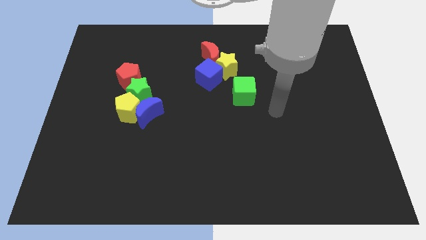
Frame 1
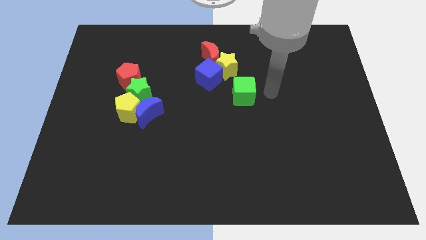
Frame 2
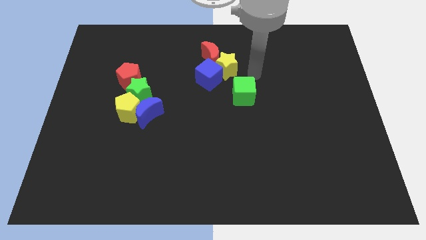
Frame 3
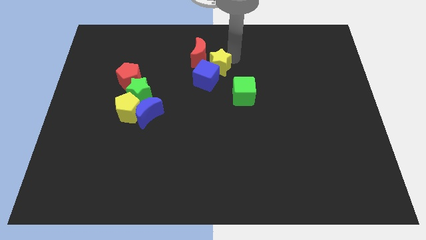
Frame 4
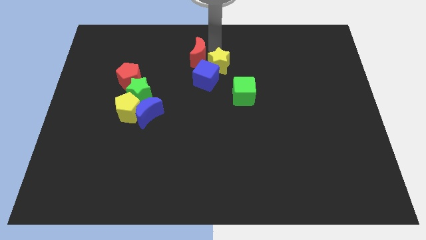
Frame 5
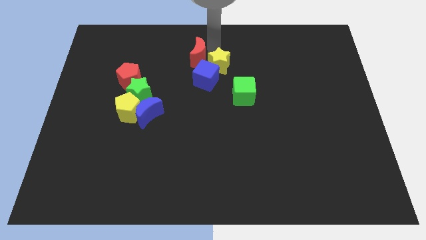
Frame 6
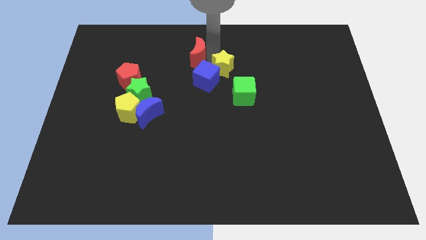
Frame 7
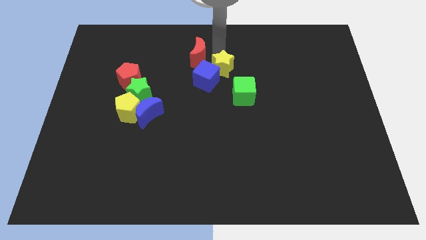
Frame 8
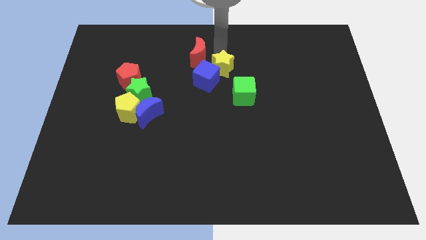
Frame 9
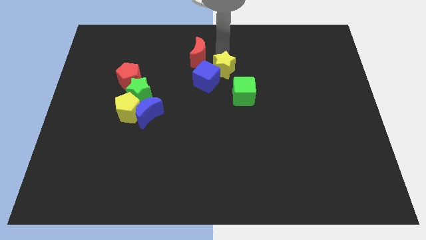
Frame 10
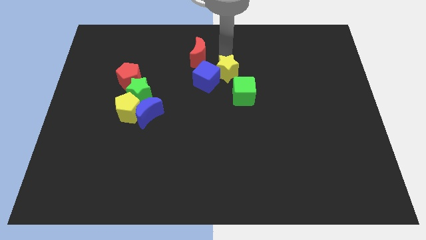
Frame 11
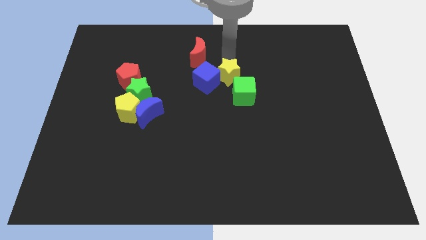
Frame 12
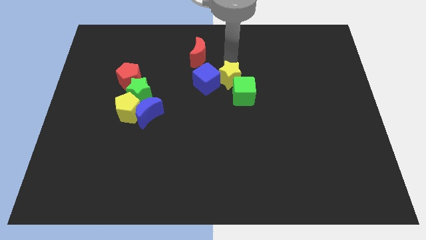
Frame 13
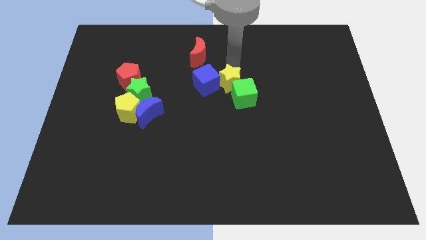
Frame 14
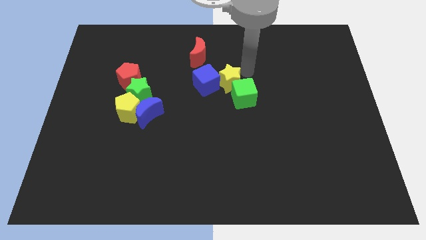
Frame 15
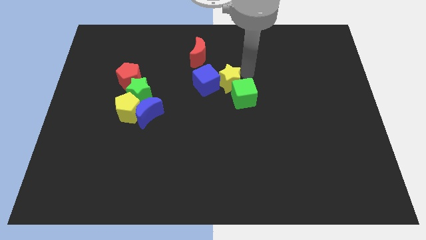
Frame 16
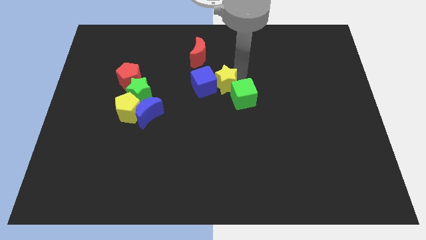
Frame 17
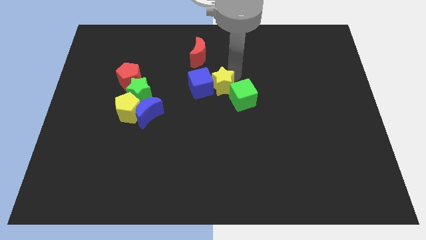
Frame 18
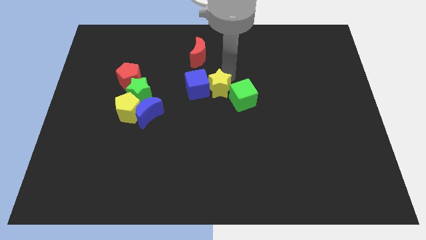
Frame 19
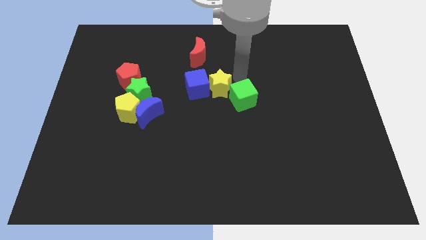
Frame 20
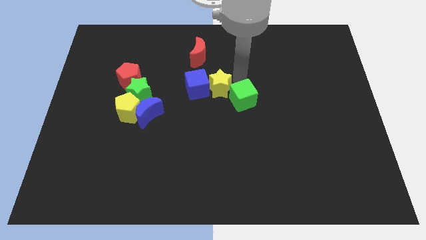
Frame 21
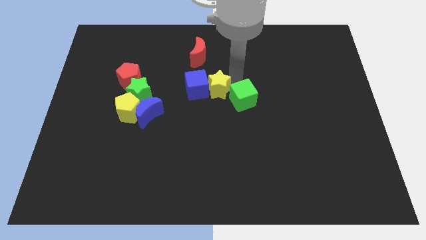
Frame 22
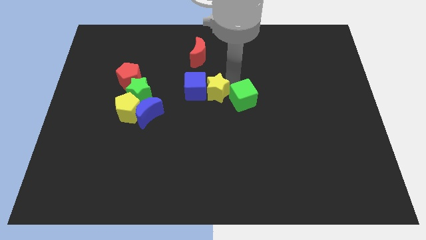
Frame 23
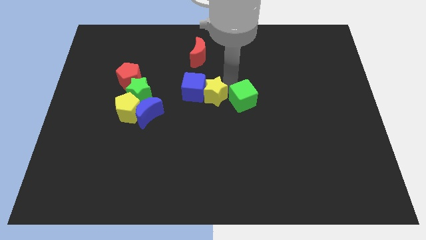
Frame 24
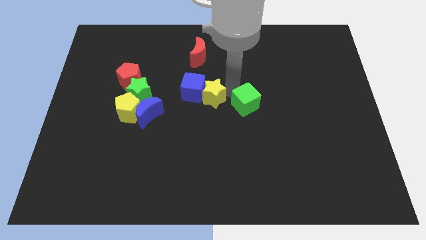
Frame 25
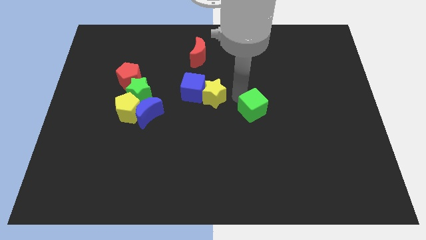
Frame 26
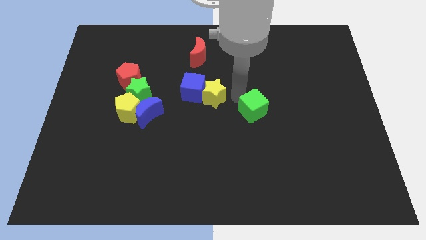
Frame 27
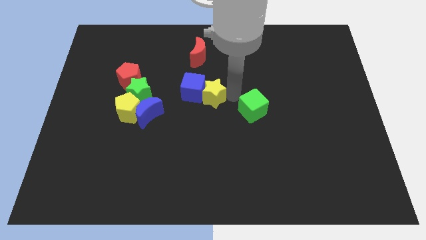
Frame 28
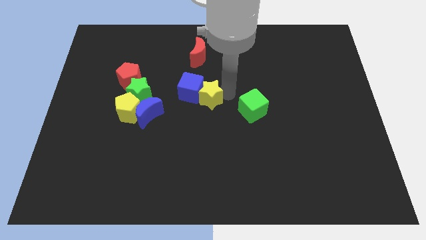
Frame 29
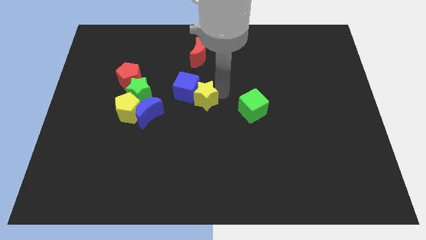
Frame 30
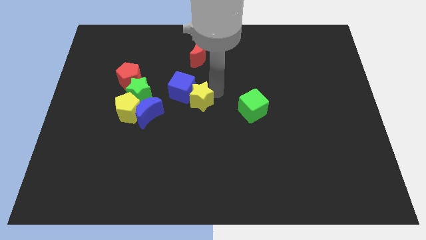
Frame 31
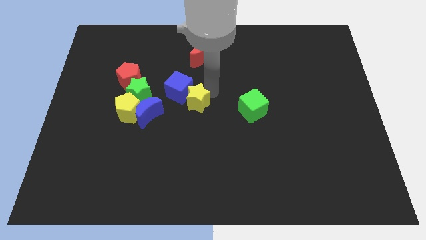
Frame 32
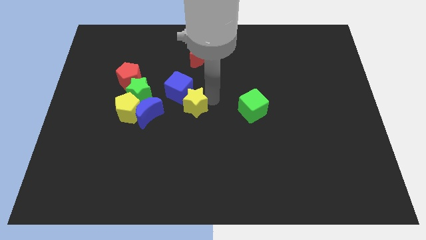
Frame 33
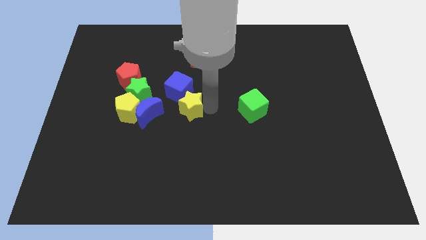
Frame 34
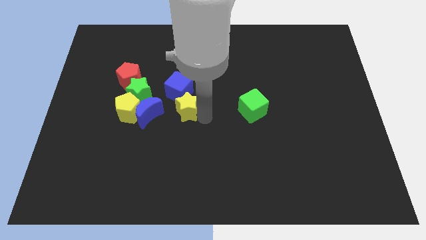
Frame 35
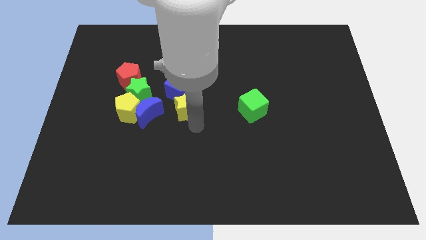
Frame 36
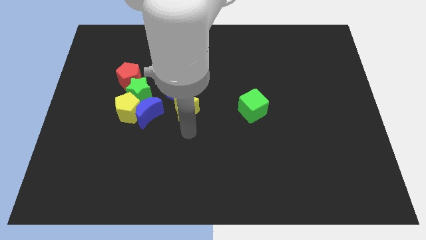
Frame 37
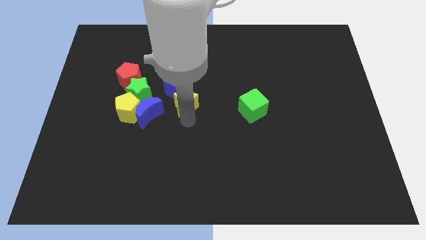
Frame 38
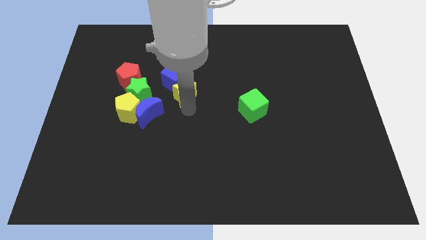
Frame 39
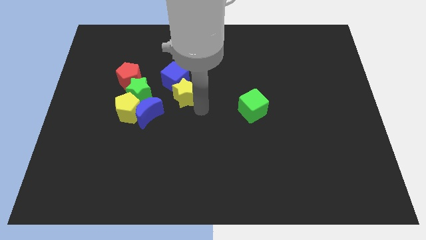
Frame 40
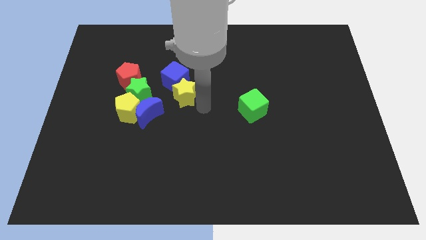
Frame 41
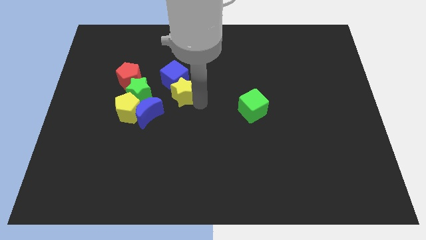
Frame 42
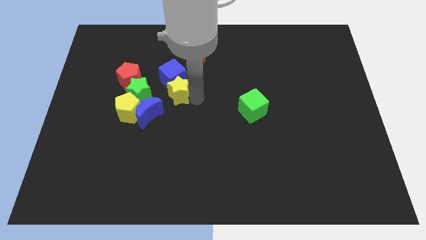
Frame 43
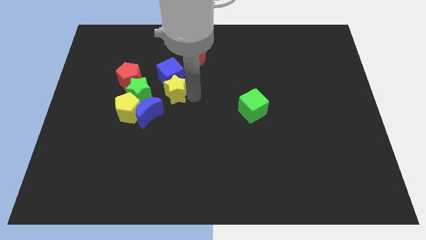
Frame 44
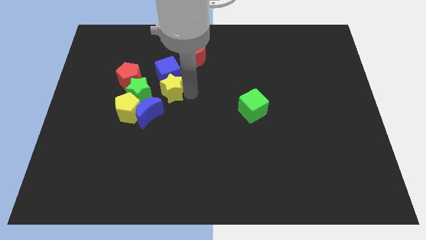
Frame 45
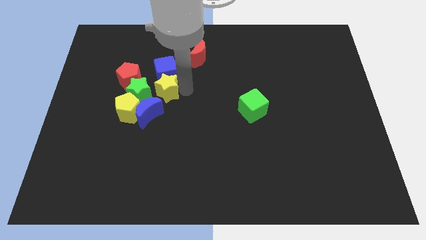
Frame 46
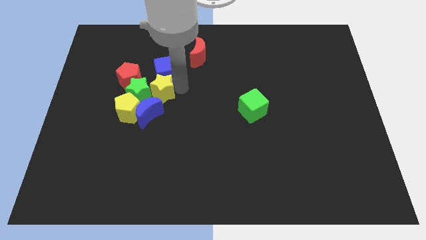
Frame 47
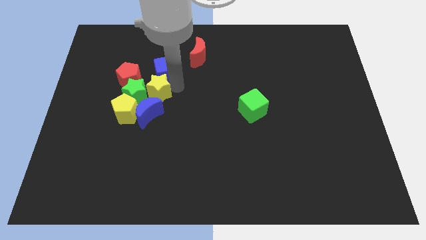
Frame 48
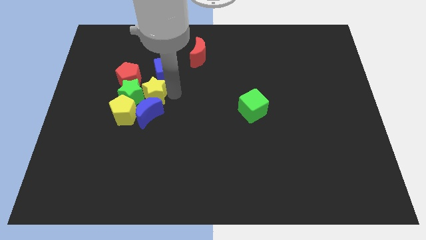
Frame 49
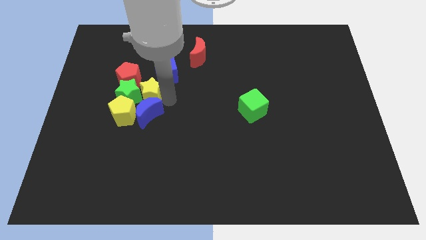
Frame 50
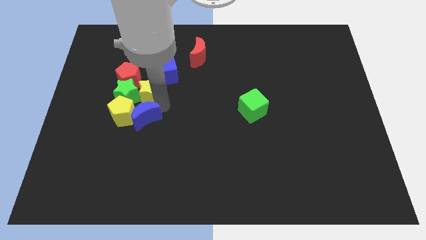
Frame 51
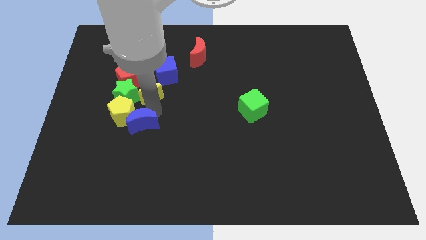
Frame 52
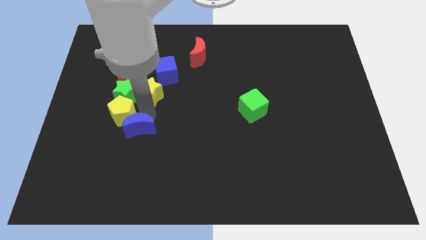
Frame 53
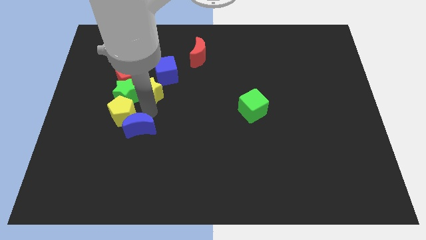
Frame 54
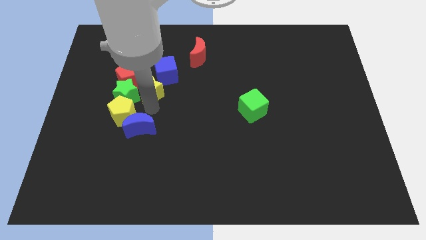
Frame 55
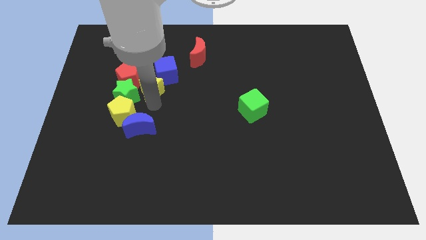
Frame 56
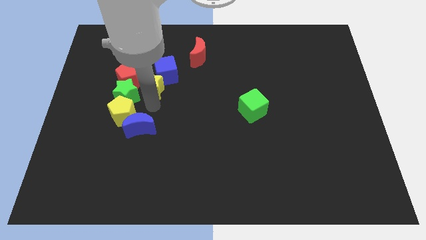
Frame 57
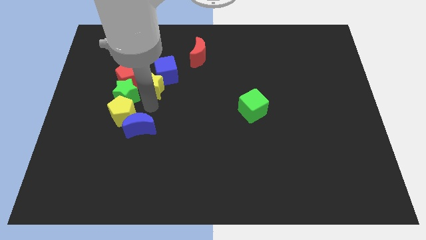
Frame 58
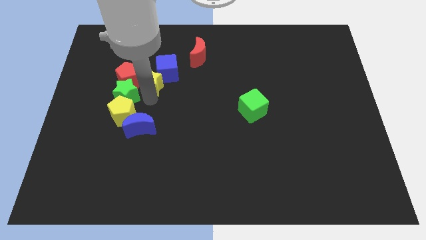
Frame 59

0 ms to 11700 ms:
move the yellow star next to the red pentagon

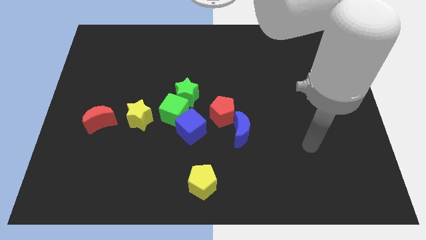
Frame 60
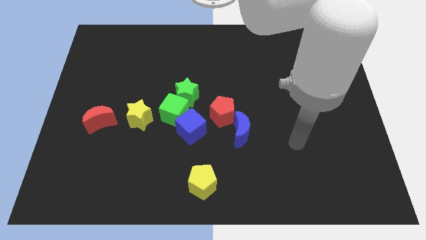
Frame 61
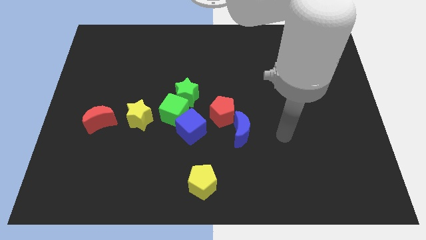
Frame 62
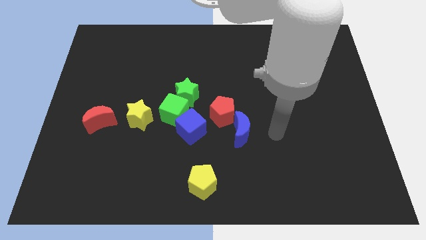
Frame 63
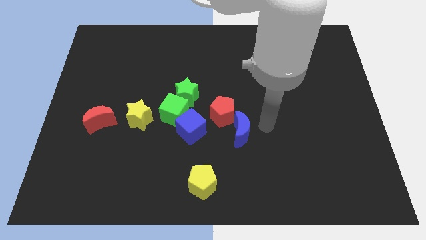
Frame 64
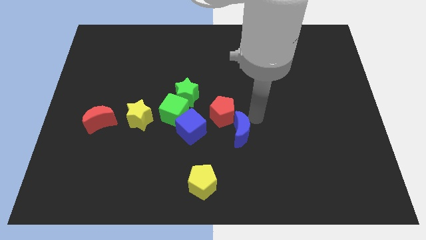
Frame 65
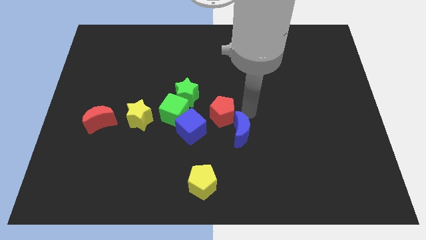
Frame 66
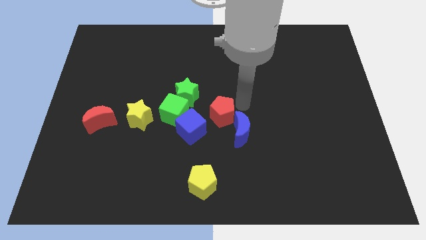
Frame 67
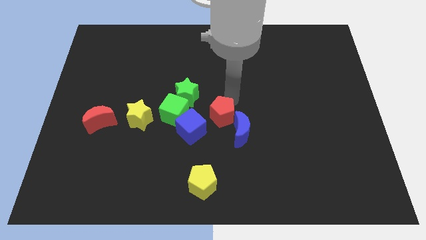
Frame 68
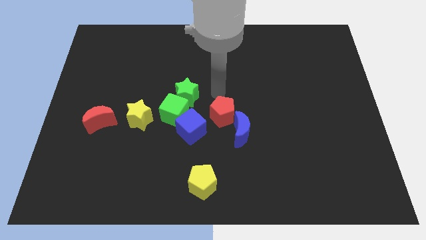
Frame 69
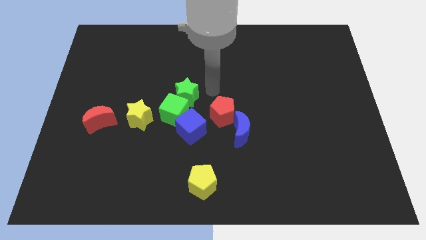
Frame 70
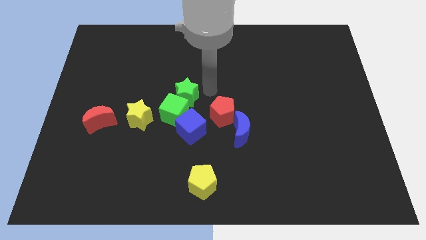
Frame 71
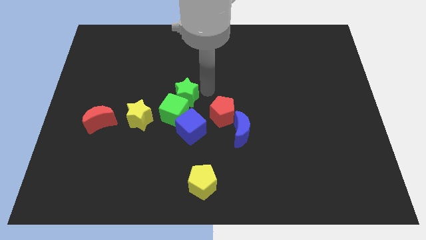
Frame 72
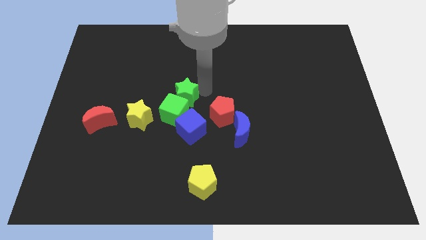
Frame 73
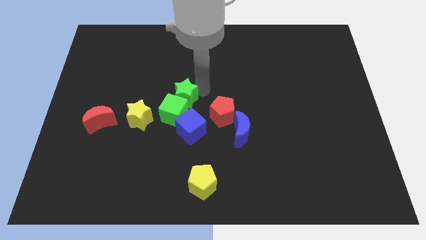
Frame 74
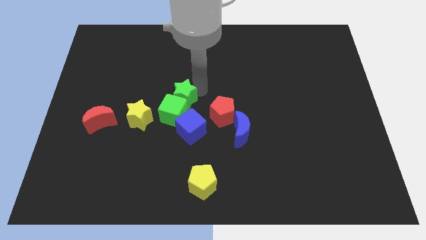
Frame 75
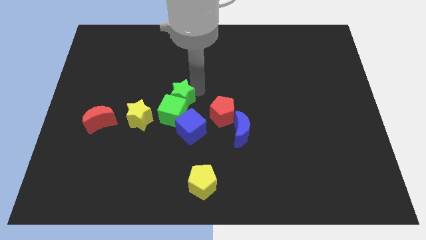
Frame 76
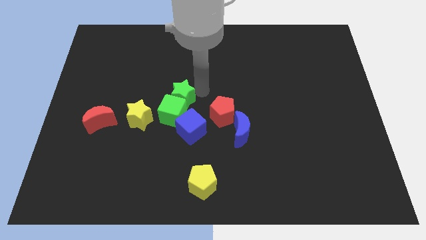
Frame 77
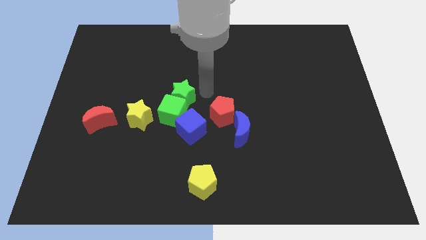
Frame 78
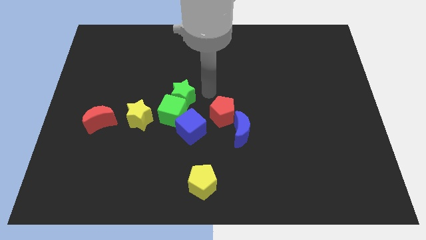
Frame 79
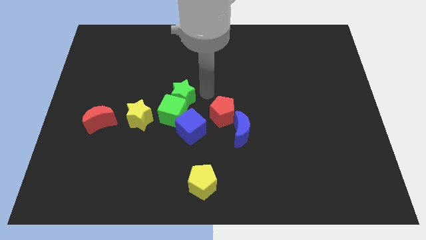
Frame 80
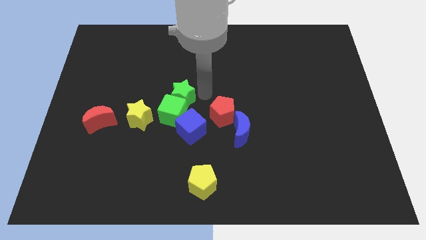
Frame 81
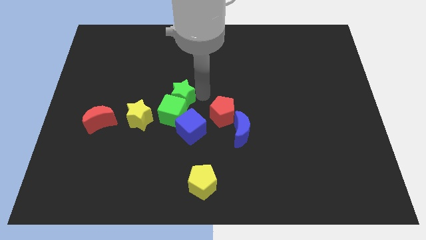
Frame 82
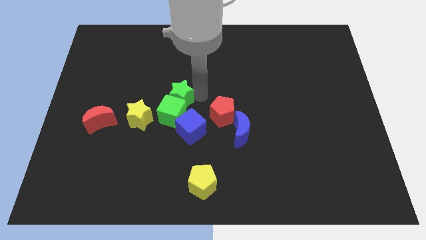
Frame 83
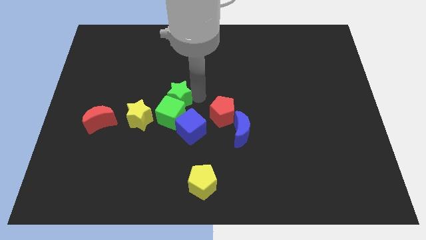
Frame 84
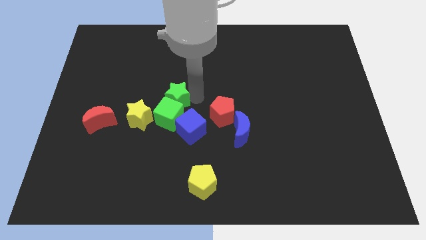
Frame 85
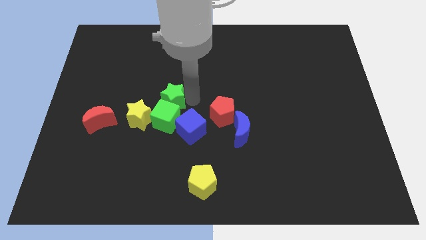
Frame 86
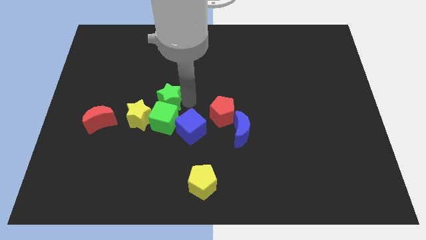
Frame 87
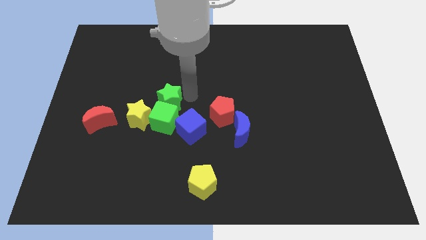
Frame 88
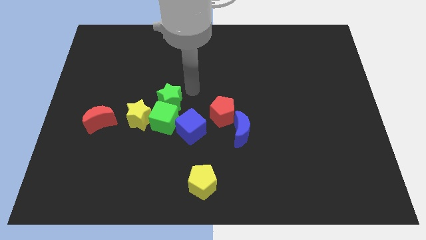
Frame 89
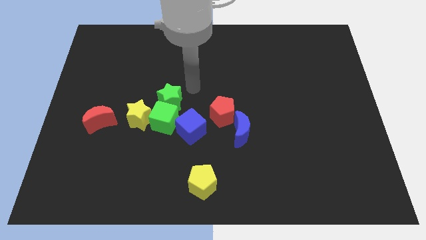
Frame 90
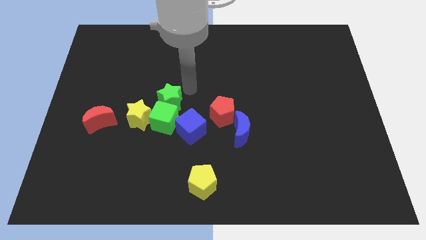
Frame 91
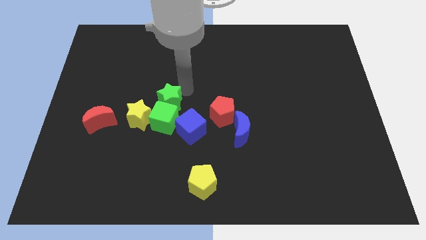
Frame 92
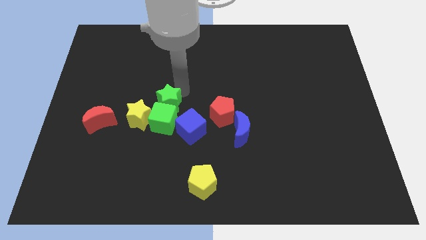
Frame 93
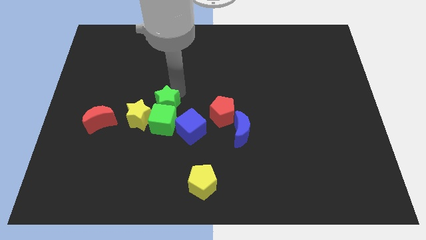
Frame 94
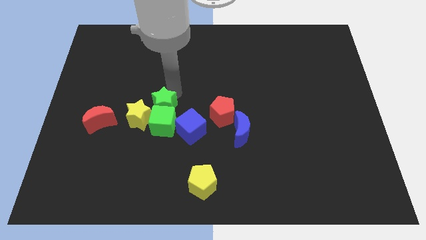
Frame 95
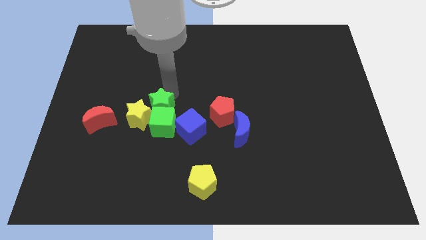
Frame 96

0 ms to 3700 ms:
push the green star towards the yellow star
